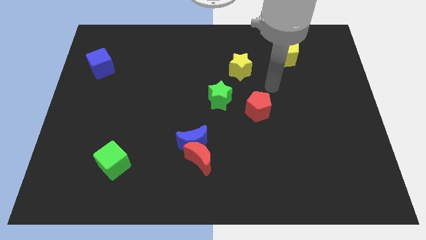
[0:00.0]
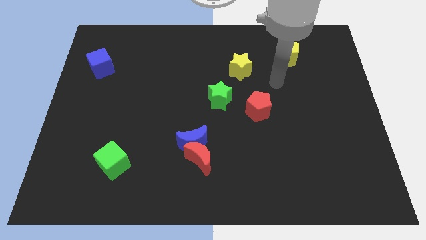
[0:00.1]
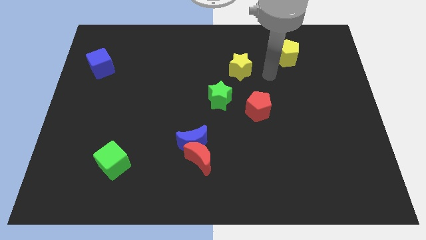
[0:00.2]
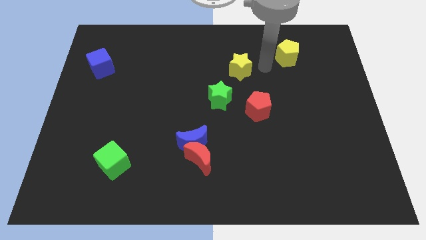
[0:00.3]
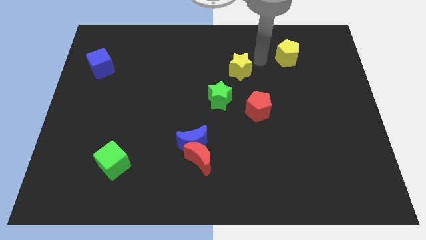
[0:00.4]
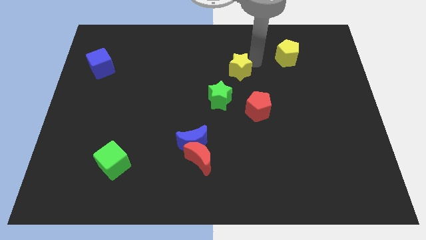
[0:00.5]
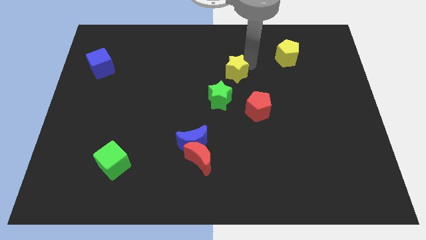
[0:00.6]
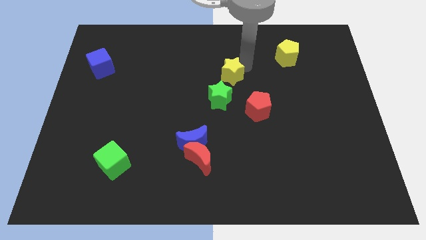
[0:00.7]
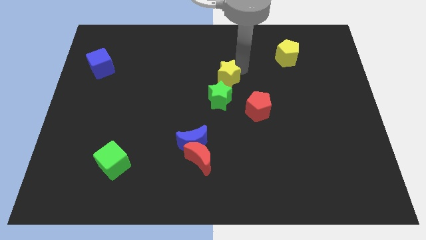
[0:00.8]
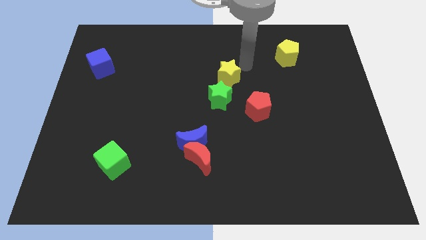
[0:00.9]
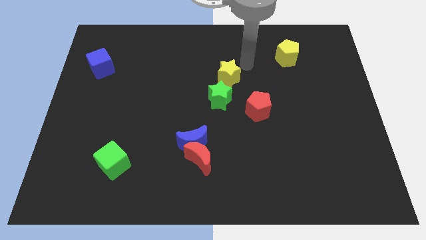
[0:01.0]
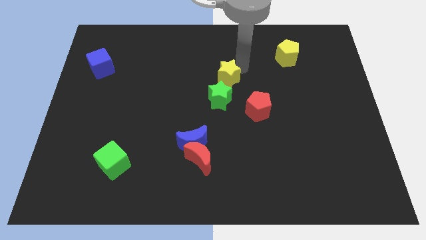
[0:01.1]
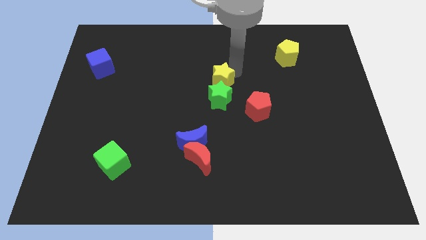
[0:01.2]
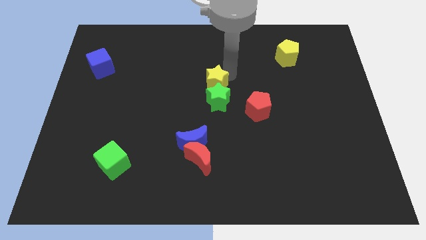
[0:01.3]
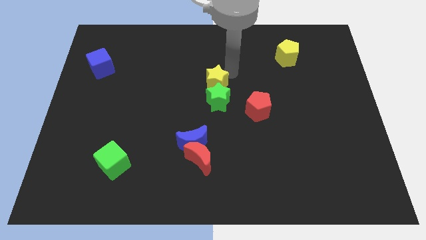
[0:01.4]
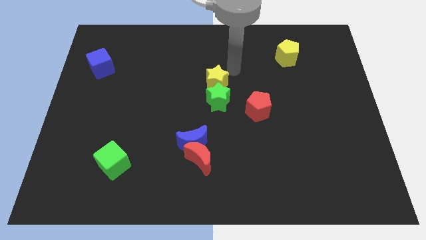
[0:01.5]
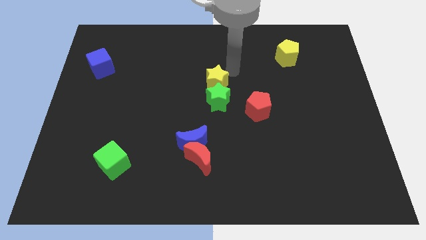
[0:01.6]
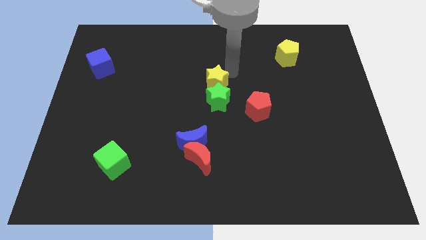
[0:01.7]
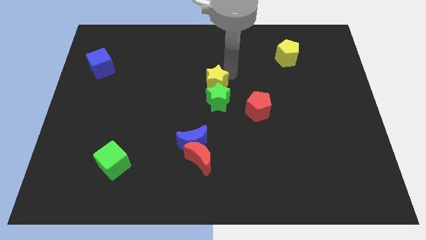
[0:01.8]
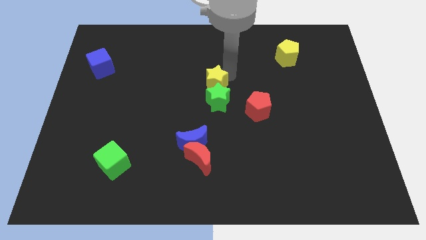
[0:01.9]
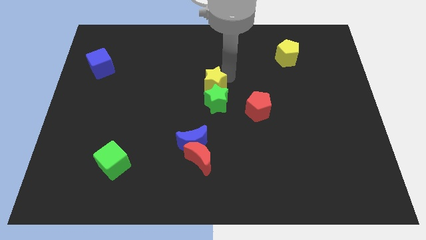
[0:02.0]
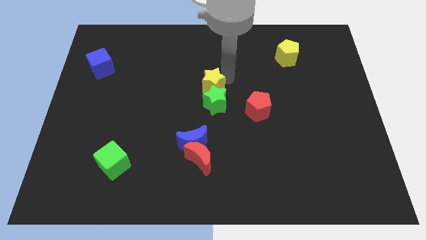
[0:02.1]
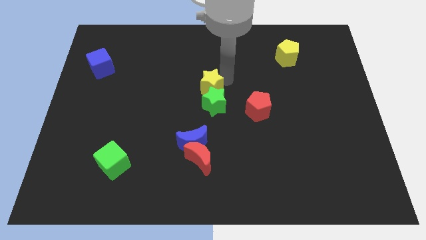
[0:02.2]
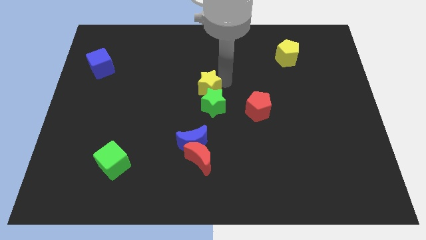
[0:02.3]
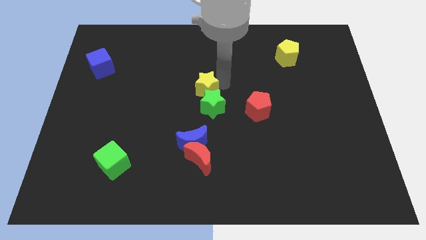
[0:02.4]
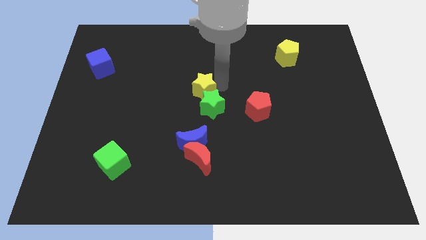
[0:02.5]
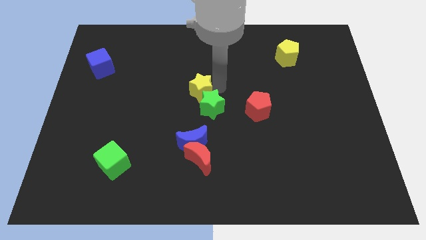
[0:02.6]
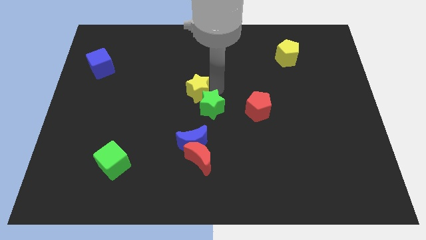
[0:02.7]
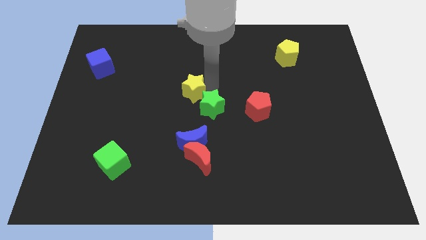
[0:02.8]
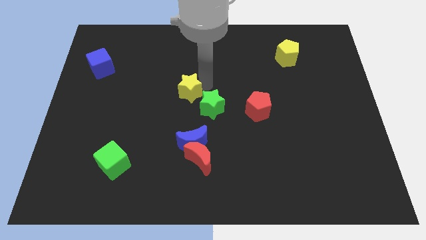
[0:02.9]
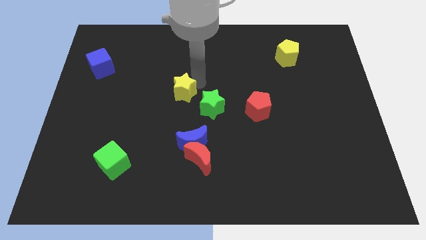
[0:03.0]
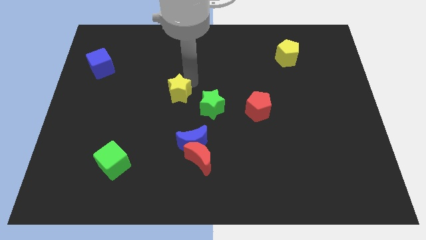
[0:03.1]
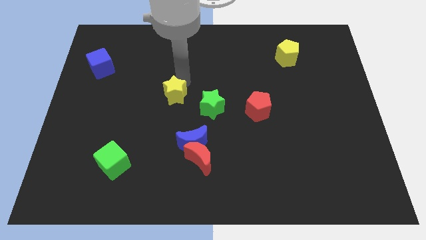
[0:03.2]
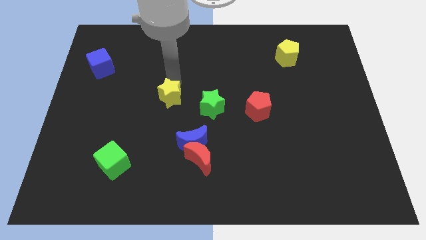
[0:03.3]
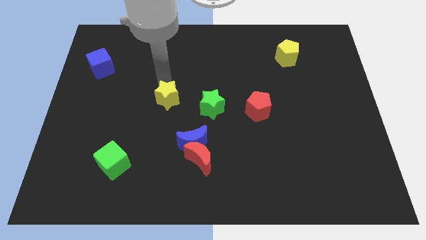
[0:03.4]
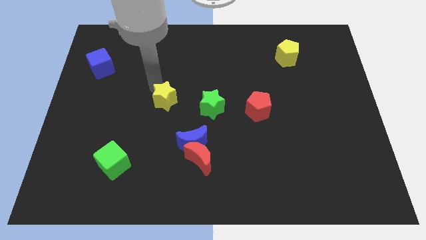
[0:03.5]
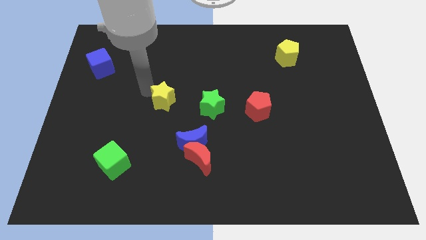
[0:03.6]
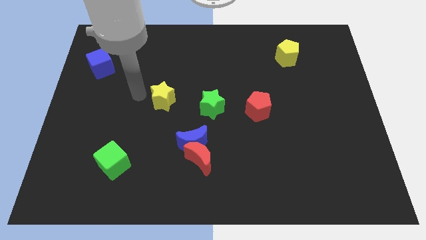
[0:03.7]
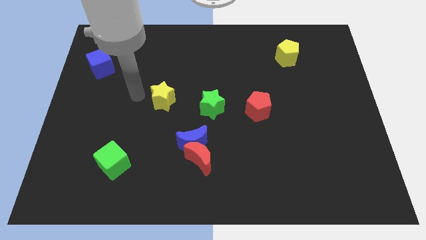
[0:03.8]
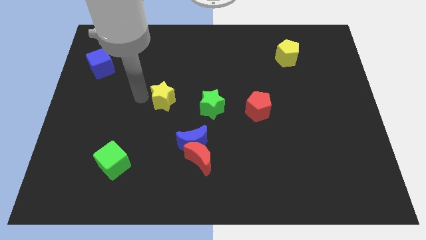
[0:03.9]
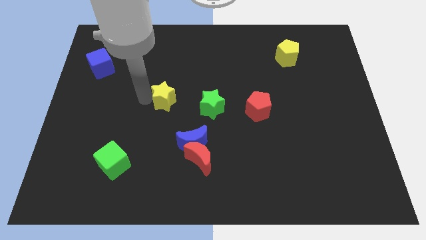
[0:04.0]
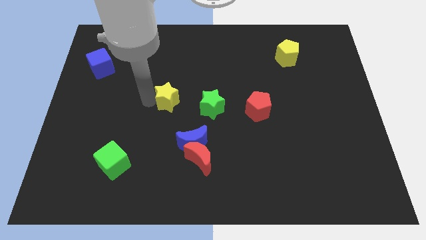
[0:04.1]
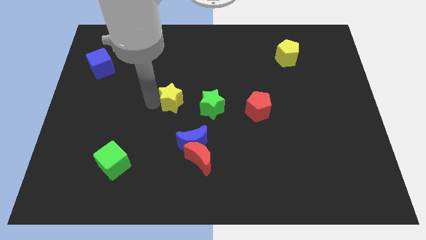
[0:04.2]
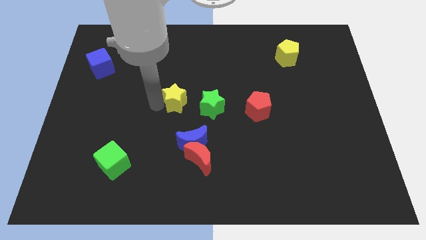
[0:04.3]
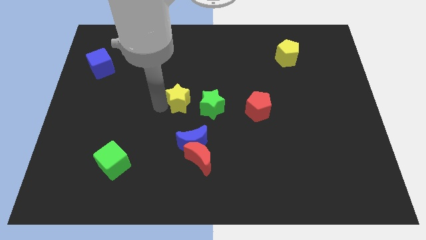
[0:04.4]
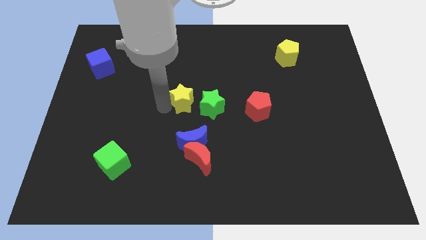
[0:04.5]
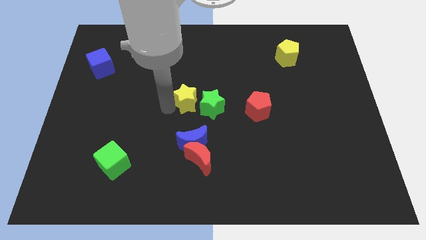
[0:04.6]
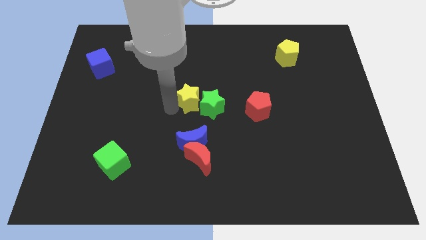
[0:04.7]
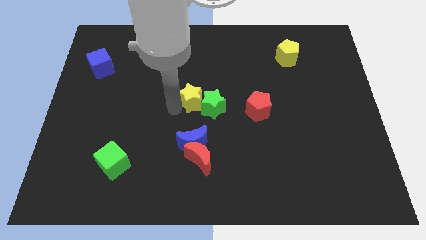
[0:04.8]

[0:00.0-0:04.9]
slide the yellow star left of the red pentagon

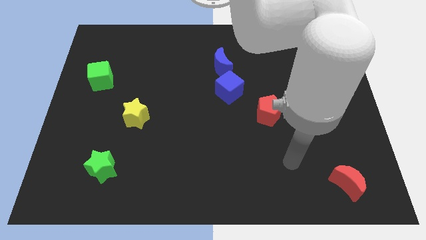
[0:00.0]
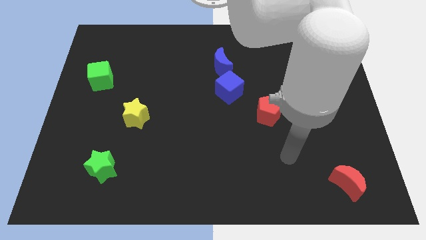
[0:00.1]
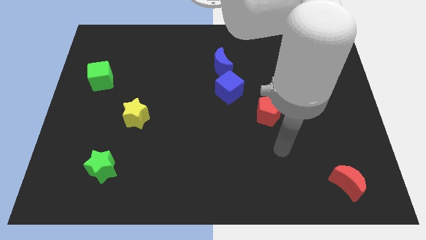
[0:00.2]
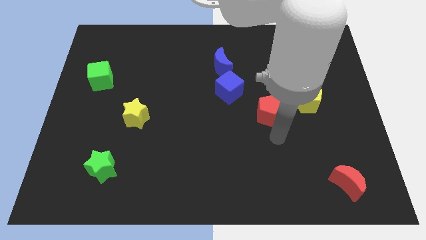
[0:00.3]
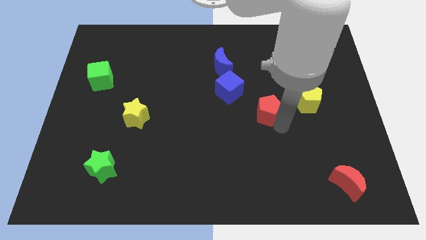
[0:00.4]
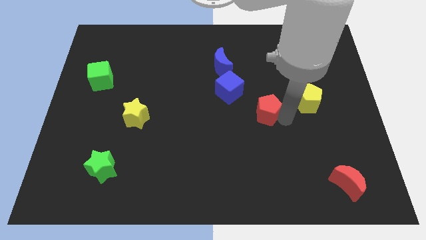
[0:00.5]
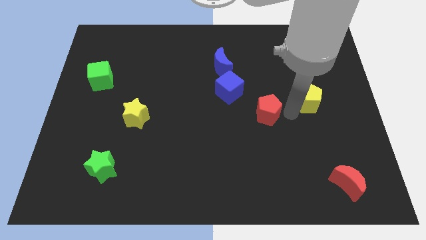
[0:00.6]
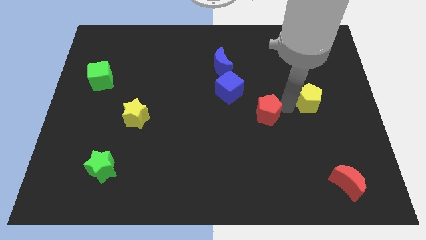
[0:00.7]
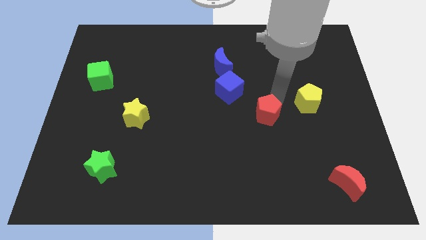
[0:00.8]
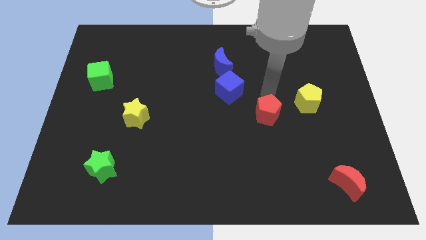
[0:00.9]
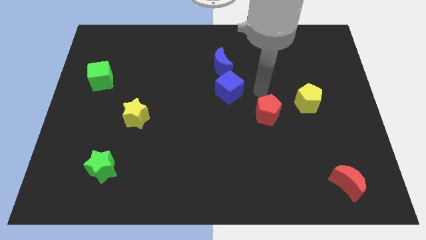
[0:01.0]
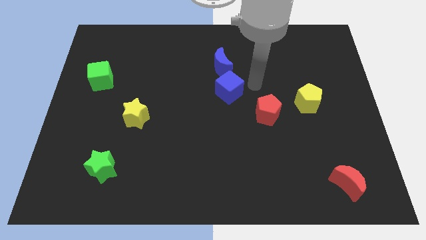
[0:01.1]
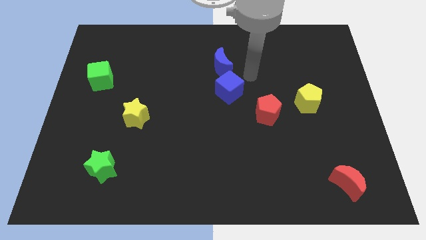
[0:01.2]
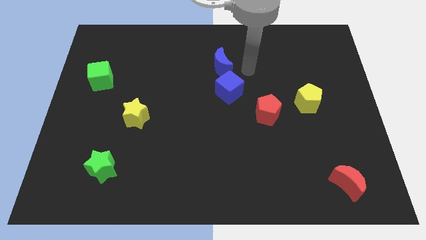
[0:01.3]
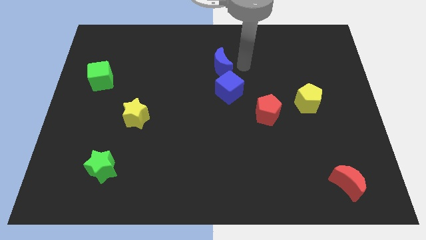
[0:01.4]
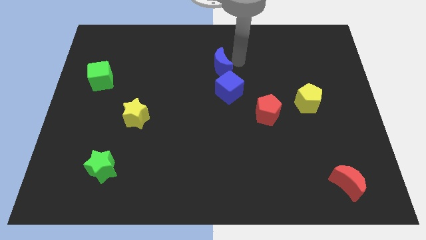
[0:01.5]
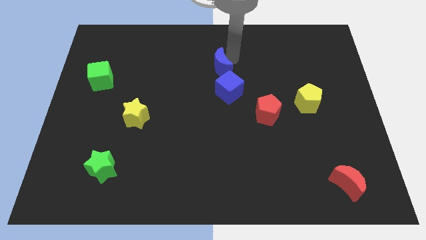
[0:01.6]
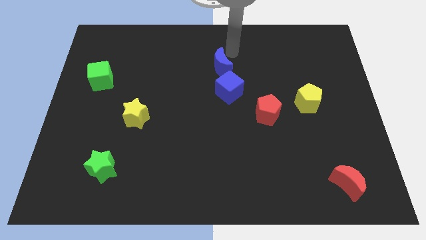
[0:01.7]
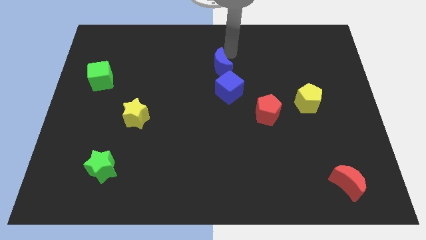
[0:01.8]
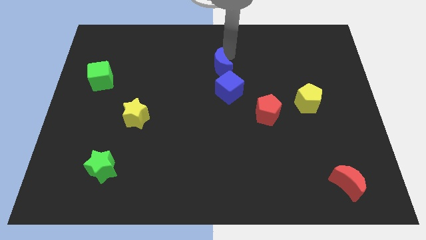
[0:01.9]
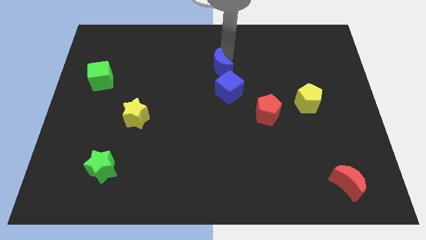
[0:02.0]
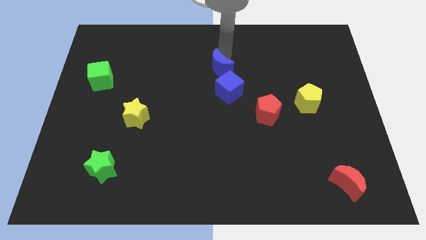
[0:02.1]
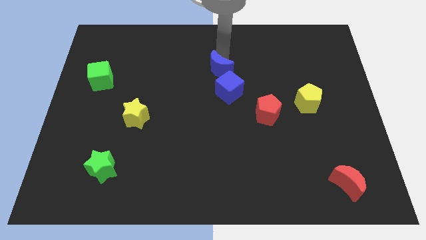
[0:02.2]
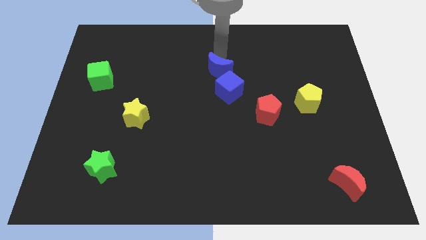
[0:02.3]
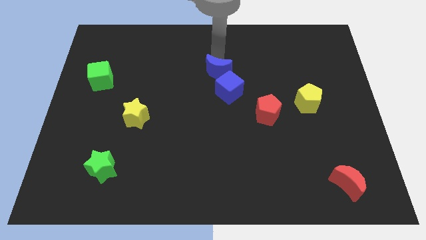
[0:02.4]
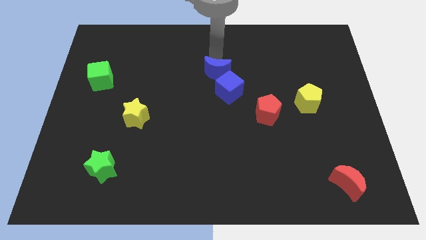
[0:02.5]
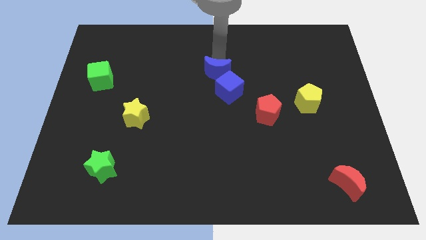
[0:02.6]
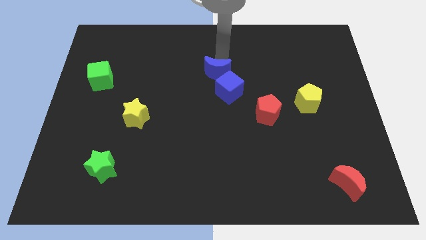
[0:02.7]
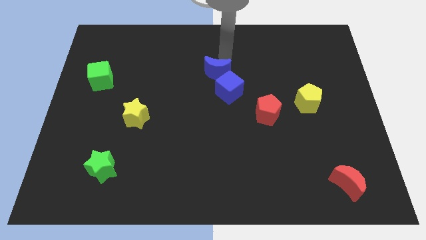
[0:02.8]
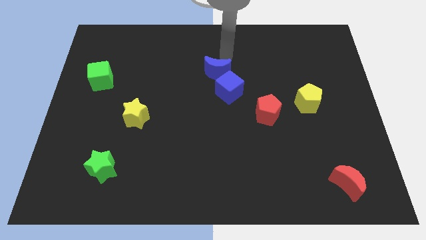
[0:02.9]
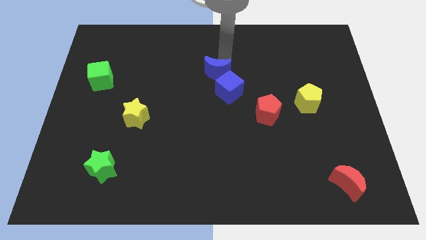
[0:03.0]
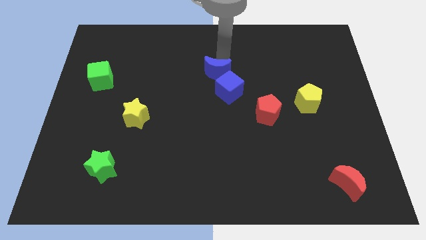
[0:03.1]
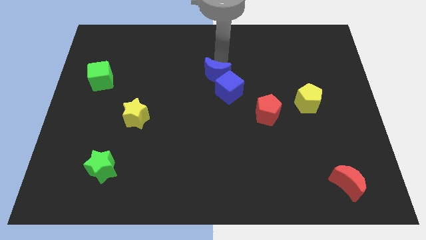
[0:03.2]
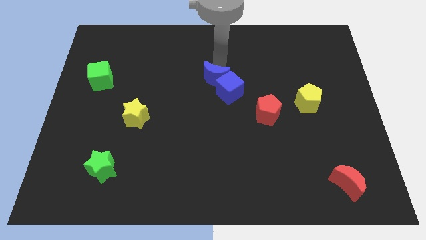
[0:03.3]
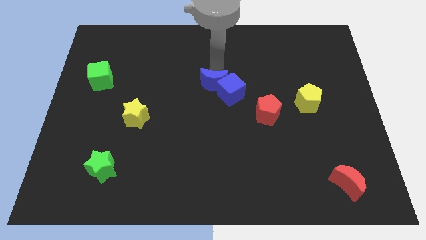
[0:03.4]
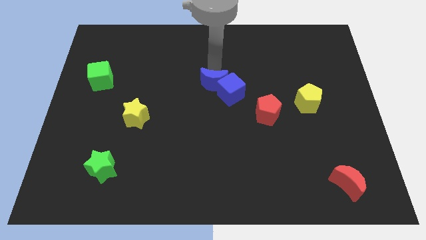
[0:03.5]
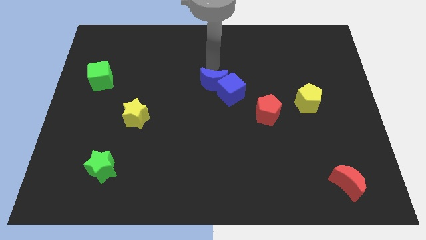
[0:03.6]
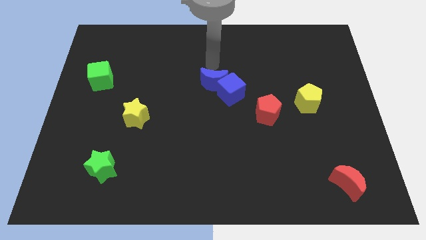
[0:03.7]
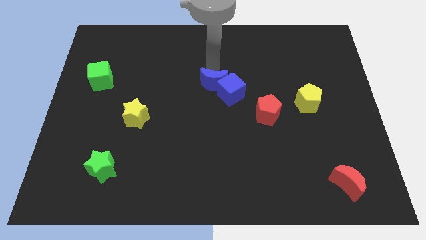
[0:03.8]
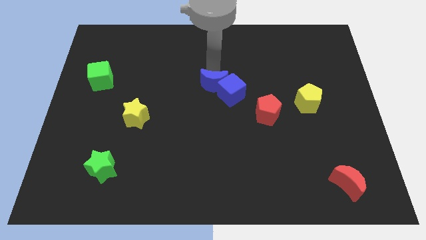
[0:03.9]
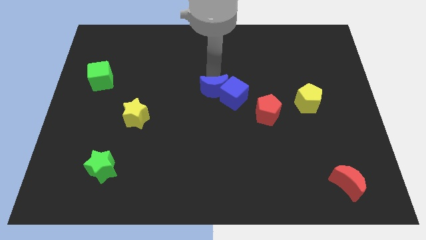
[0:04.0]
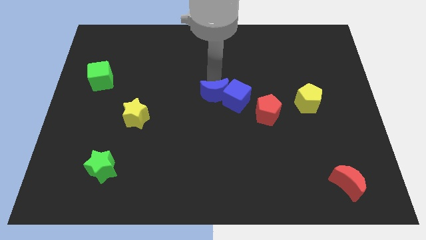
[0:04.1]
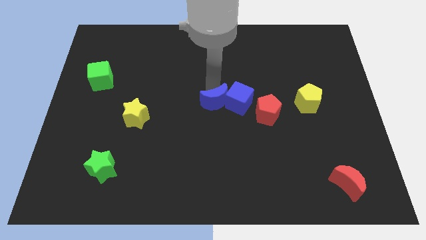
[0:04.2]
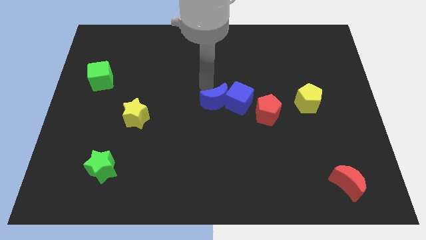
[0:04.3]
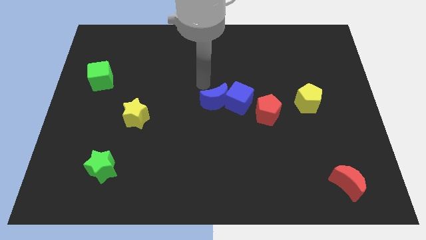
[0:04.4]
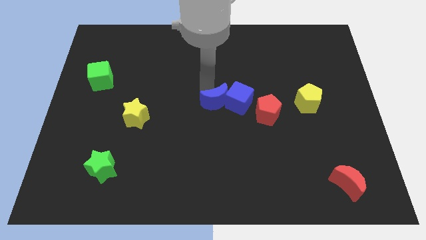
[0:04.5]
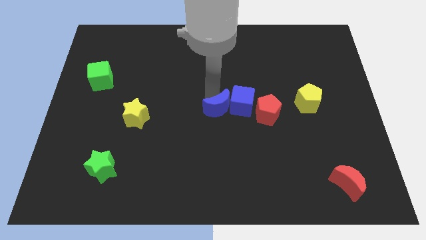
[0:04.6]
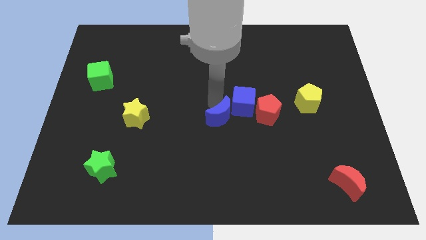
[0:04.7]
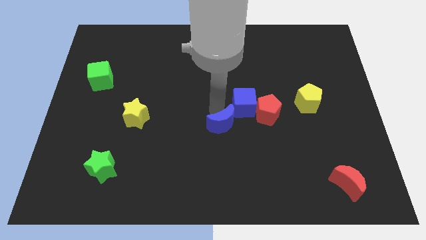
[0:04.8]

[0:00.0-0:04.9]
slide the blue moon to the bottom of the blue cube
